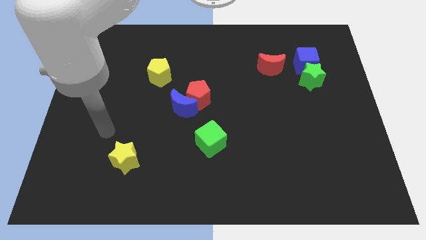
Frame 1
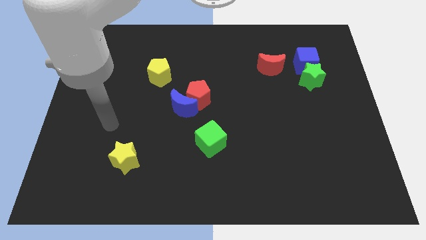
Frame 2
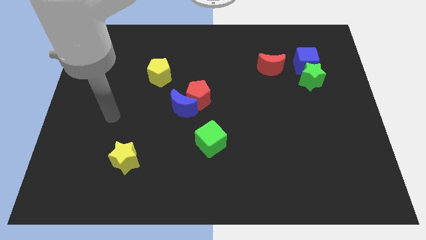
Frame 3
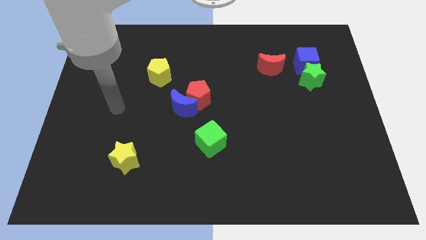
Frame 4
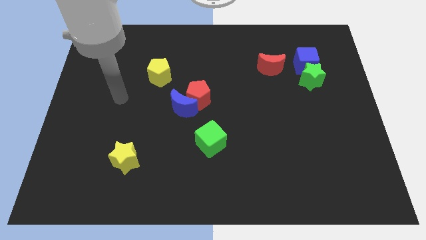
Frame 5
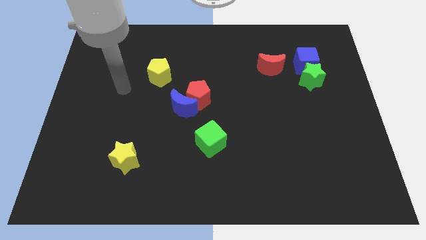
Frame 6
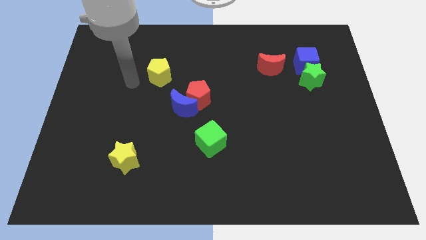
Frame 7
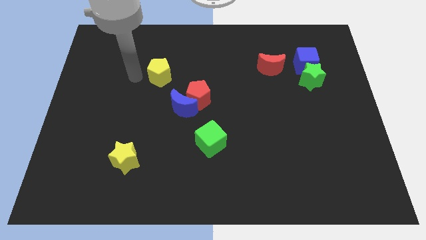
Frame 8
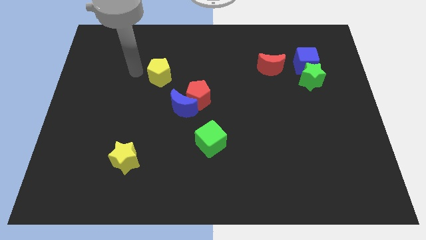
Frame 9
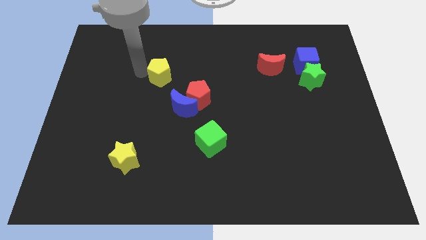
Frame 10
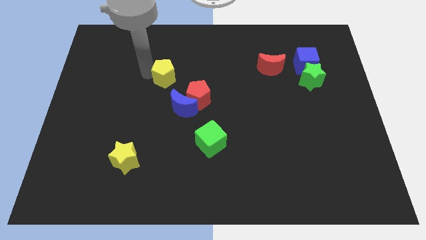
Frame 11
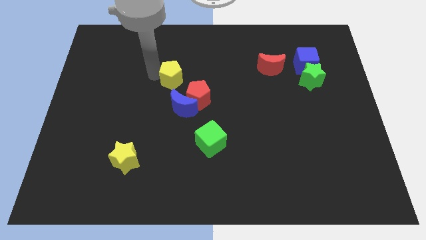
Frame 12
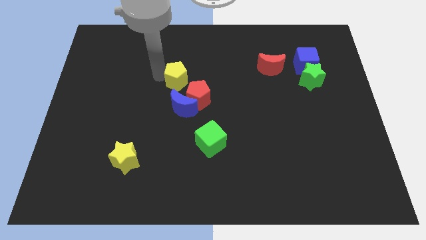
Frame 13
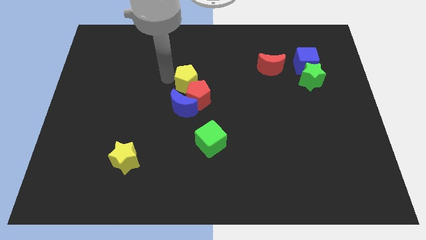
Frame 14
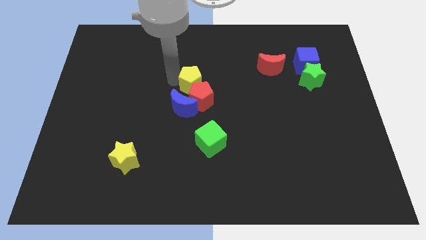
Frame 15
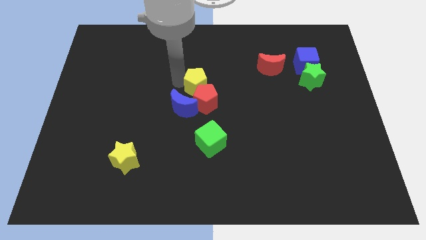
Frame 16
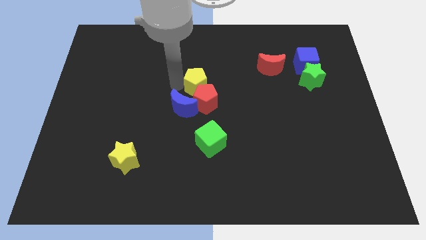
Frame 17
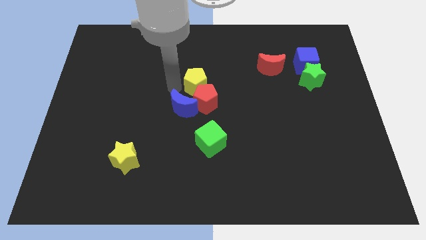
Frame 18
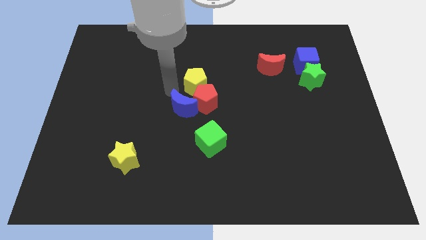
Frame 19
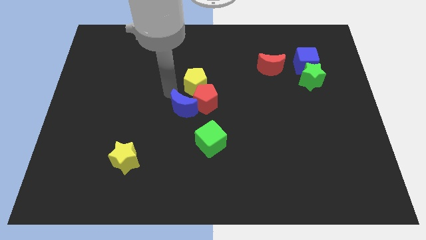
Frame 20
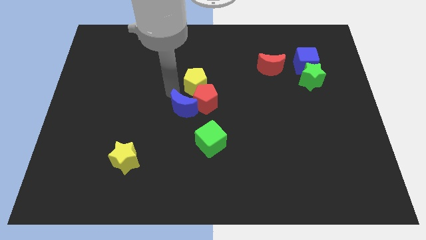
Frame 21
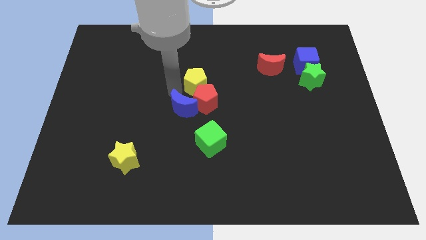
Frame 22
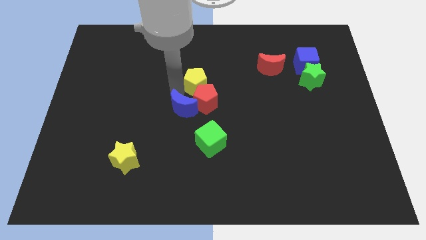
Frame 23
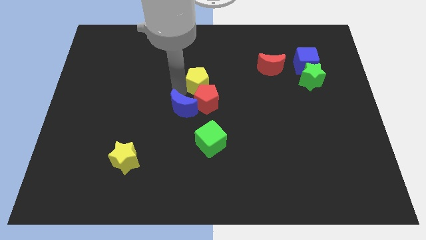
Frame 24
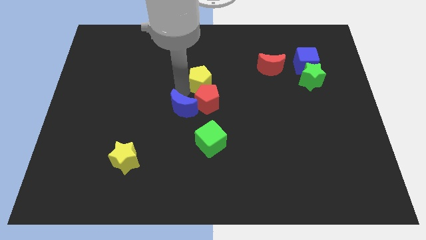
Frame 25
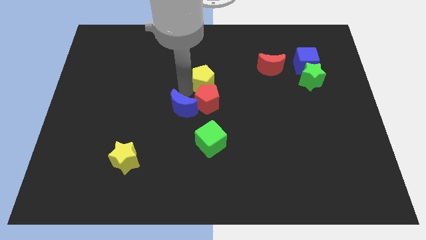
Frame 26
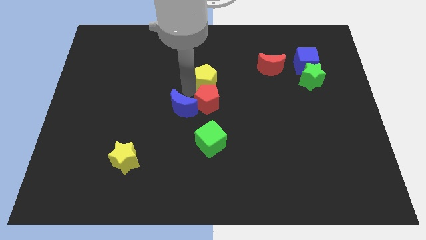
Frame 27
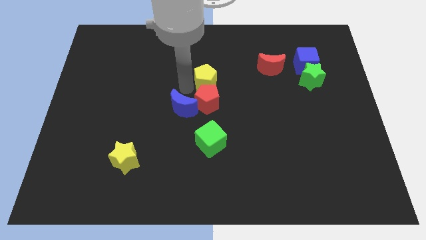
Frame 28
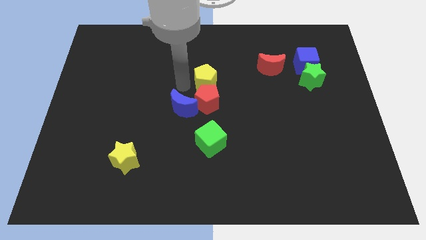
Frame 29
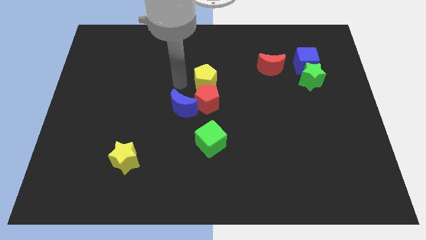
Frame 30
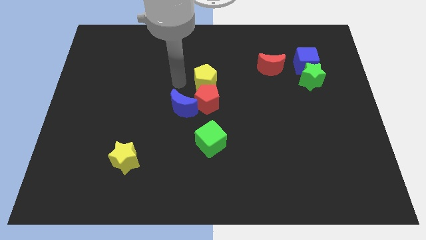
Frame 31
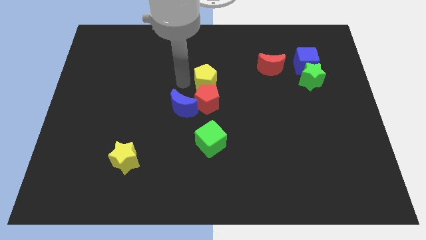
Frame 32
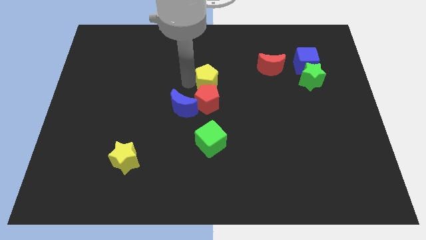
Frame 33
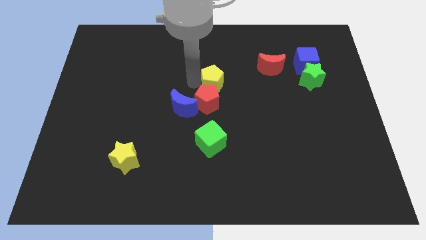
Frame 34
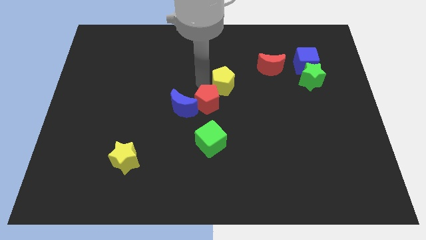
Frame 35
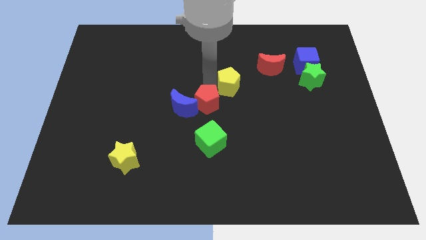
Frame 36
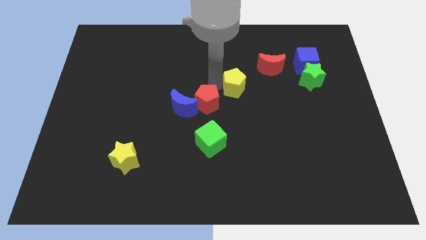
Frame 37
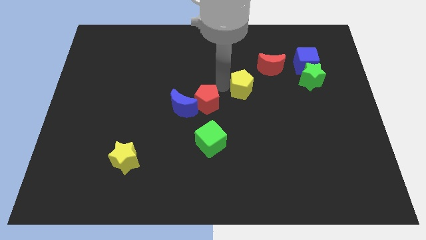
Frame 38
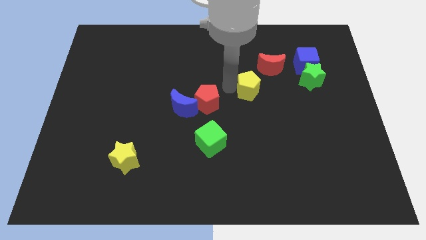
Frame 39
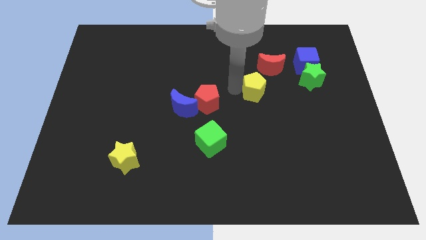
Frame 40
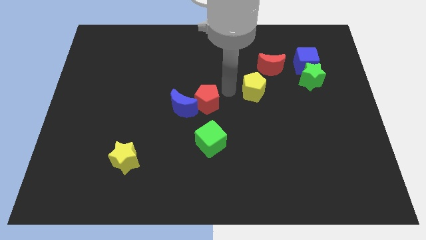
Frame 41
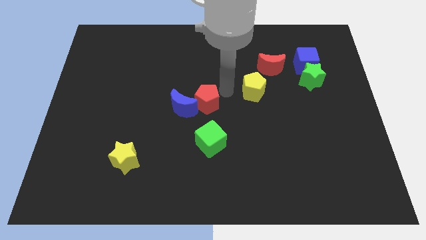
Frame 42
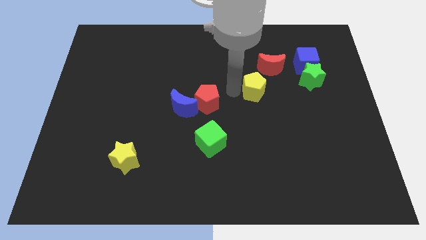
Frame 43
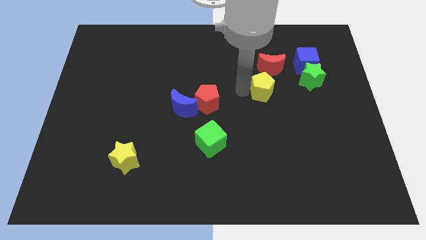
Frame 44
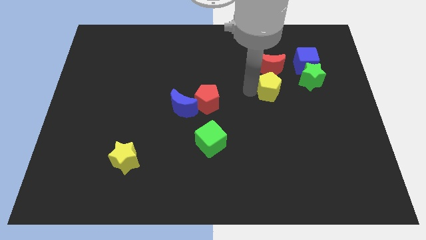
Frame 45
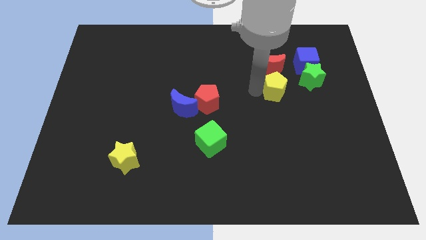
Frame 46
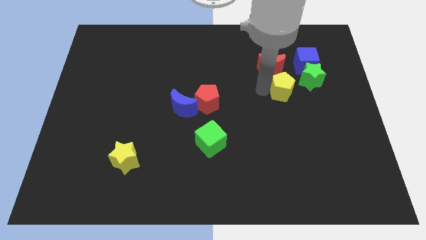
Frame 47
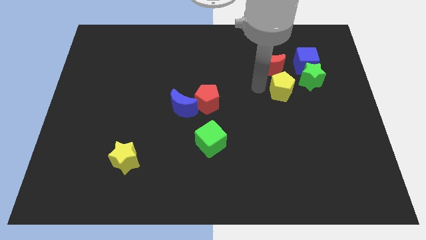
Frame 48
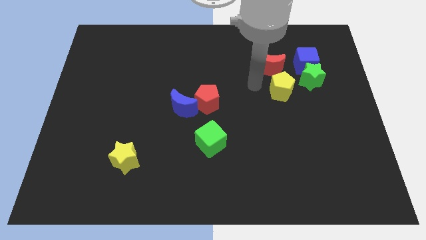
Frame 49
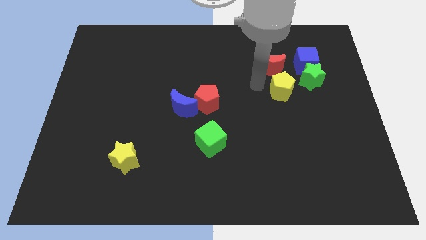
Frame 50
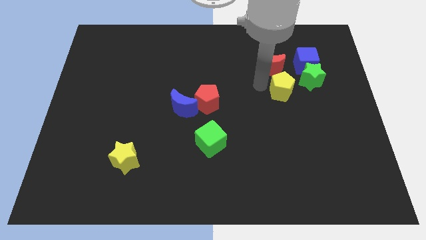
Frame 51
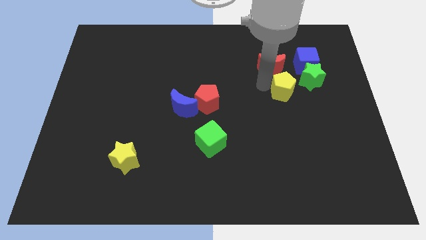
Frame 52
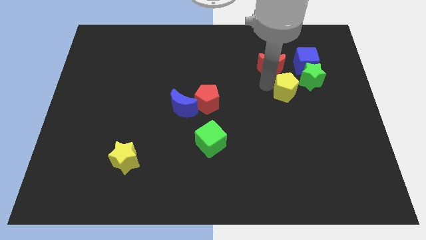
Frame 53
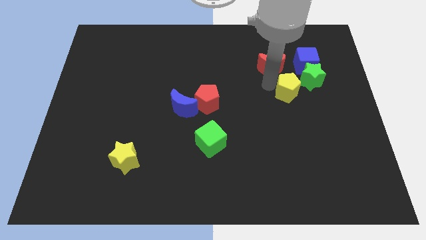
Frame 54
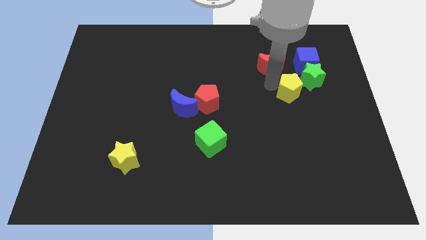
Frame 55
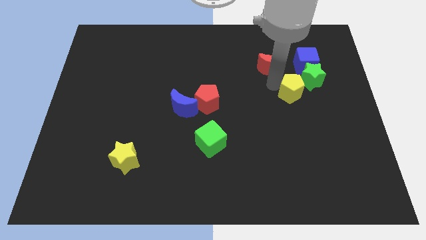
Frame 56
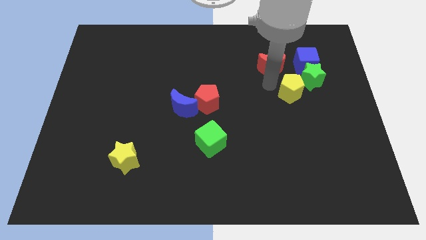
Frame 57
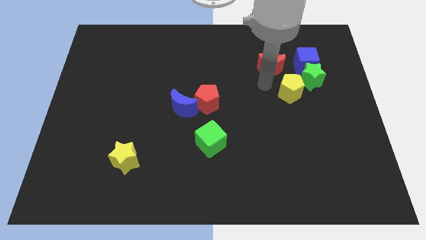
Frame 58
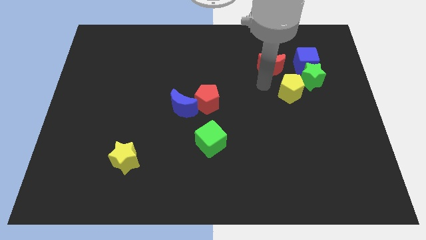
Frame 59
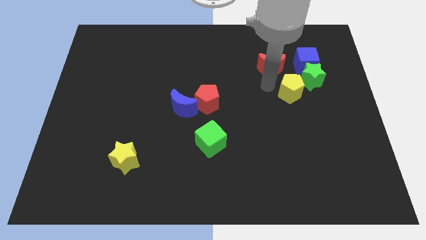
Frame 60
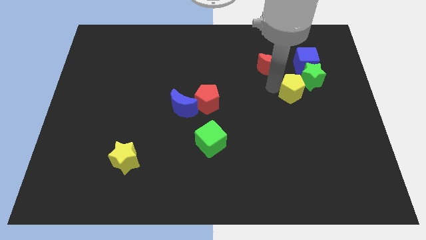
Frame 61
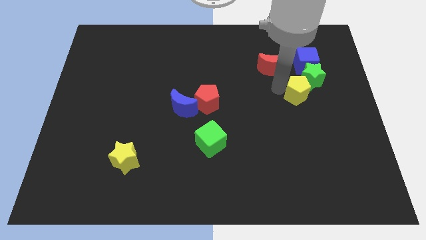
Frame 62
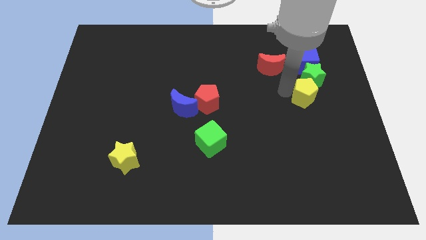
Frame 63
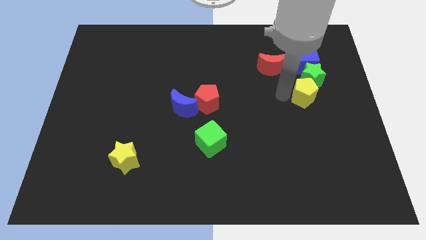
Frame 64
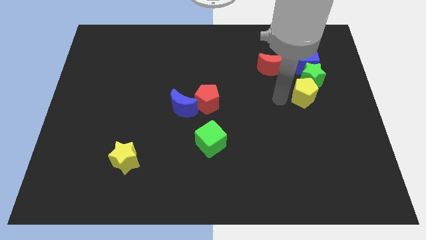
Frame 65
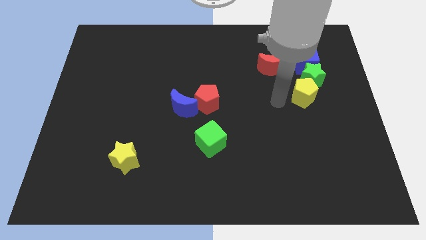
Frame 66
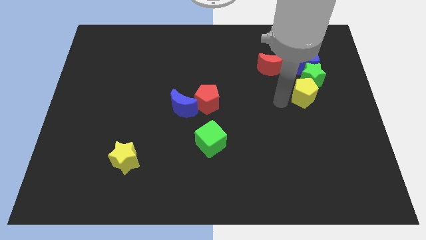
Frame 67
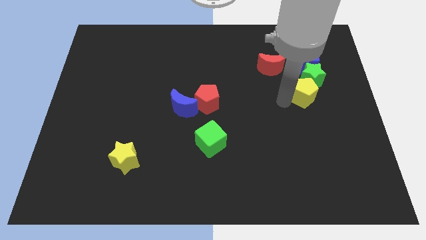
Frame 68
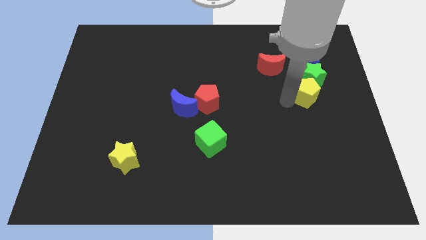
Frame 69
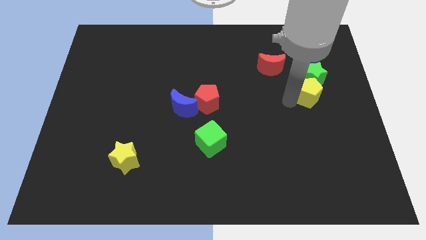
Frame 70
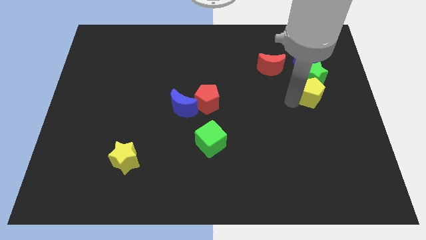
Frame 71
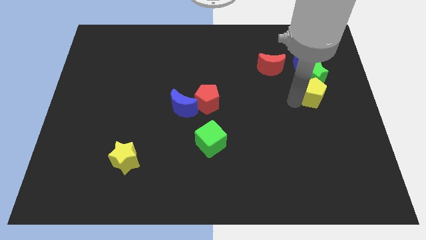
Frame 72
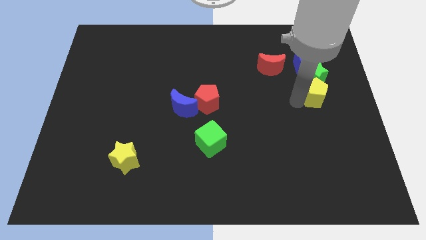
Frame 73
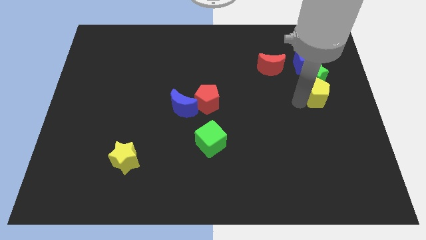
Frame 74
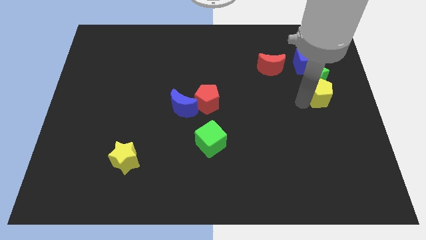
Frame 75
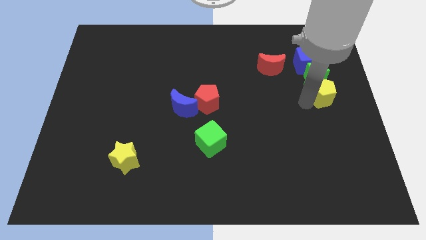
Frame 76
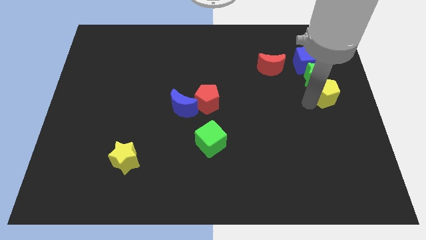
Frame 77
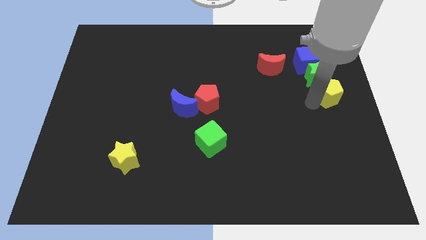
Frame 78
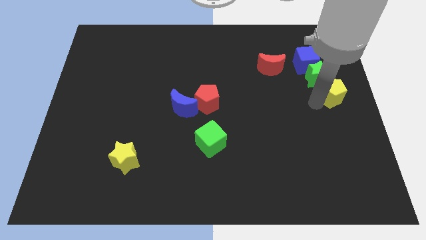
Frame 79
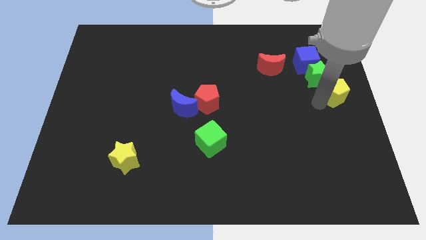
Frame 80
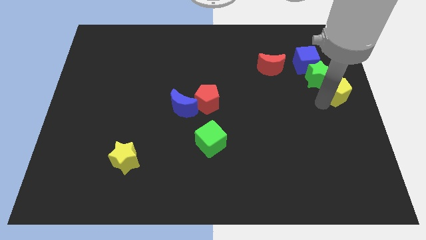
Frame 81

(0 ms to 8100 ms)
move the yellow pentagon to the bottom right side of the blue cube
